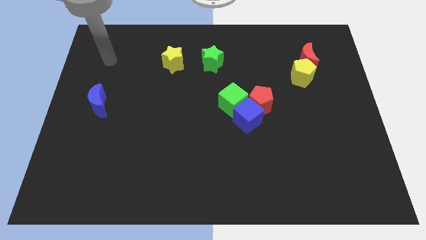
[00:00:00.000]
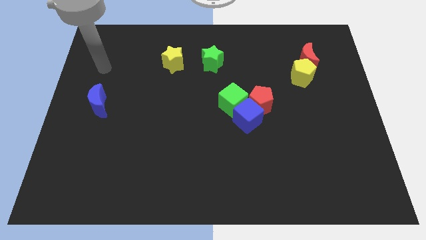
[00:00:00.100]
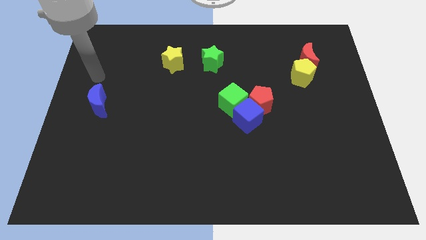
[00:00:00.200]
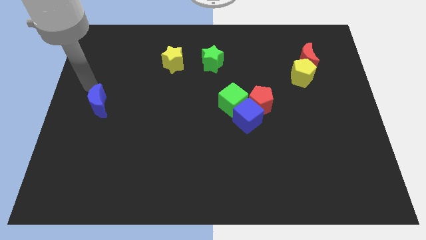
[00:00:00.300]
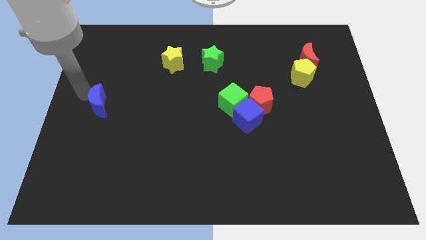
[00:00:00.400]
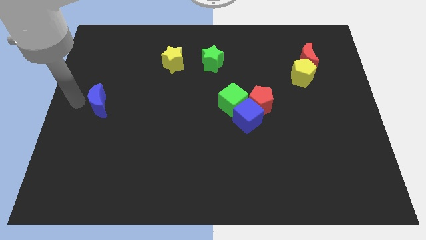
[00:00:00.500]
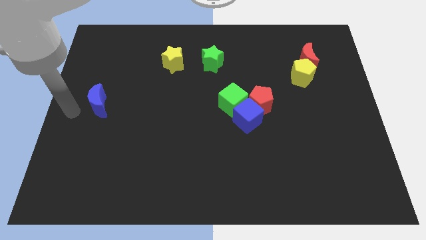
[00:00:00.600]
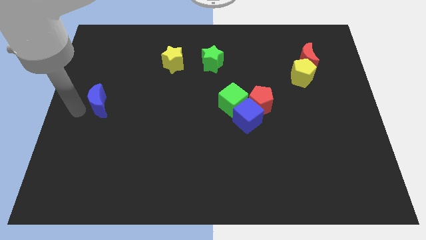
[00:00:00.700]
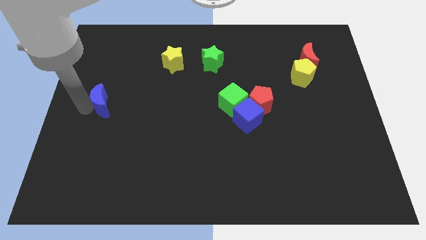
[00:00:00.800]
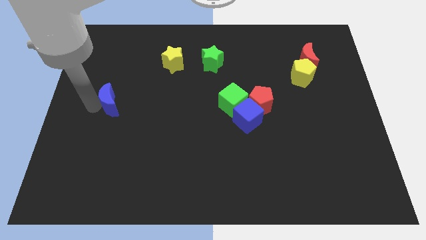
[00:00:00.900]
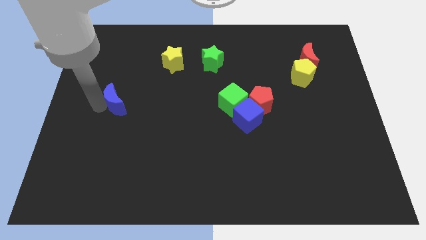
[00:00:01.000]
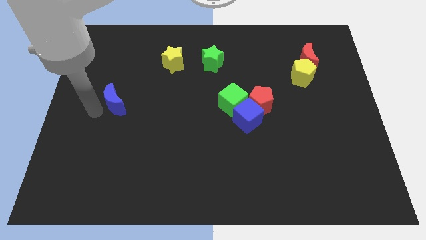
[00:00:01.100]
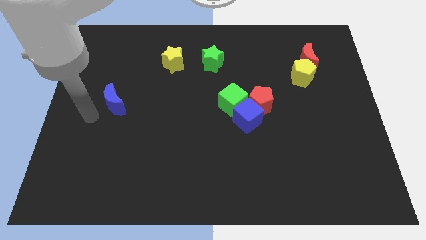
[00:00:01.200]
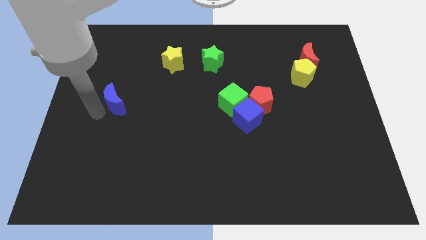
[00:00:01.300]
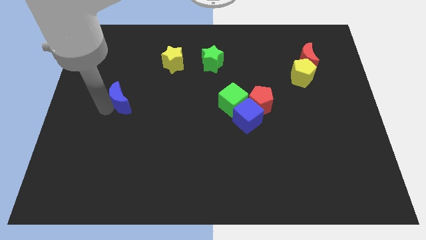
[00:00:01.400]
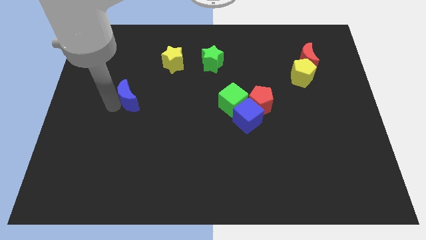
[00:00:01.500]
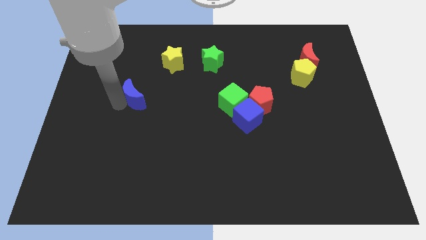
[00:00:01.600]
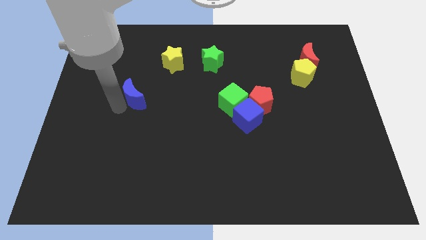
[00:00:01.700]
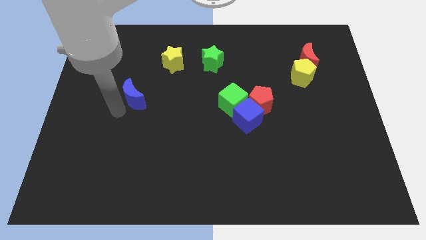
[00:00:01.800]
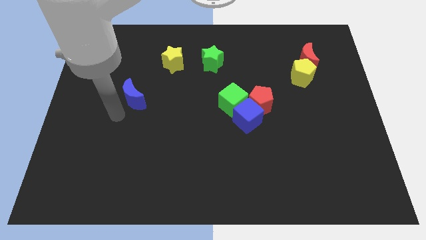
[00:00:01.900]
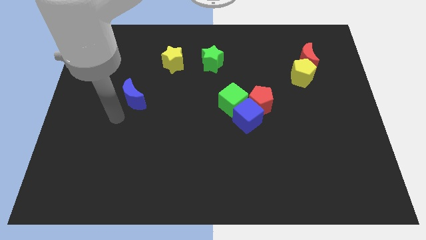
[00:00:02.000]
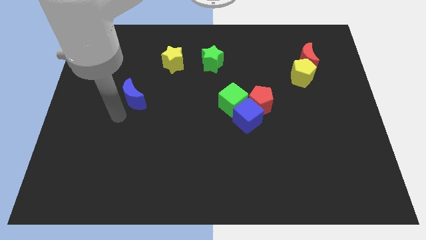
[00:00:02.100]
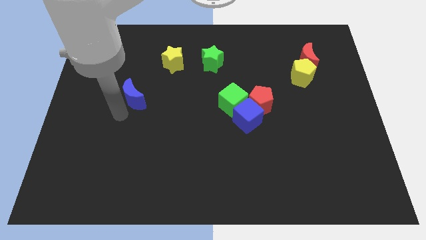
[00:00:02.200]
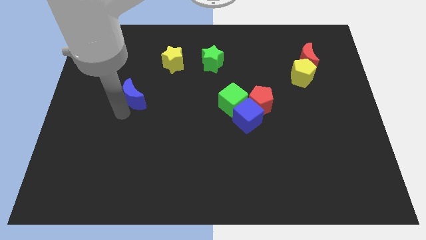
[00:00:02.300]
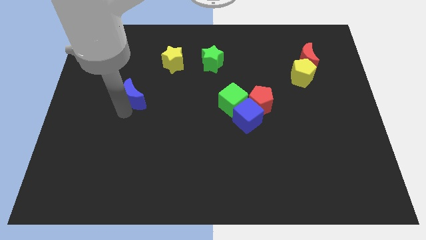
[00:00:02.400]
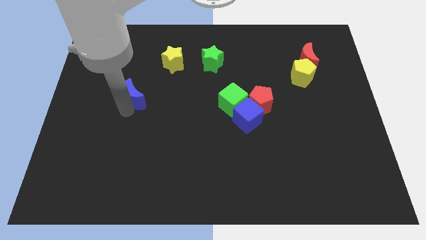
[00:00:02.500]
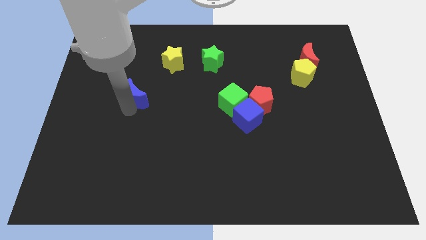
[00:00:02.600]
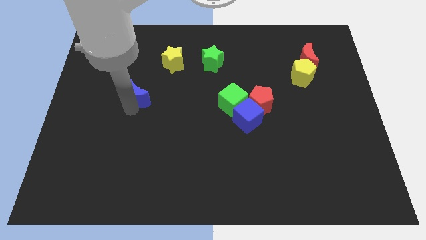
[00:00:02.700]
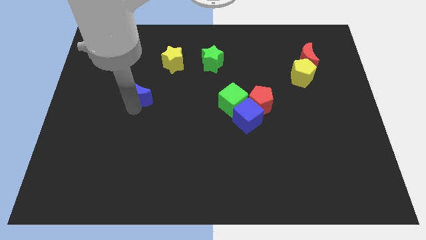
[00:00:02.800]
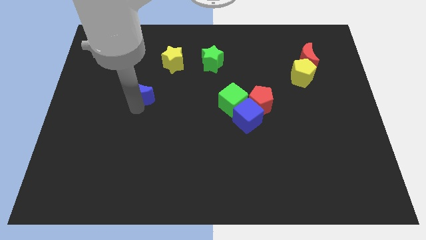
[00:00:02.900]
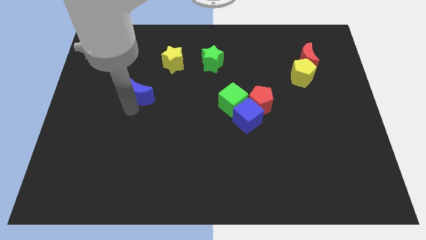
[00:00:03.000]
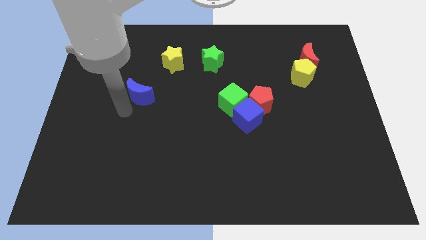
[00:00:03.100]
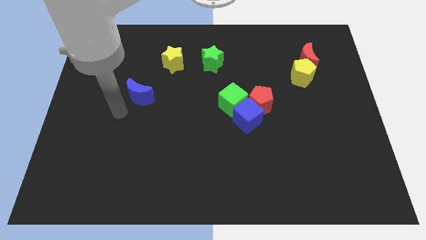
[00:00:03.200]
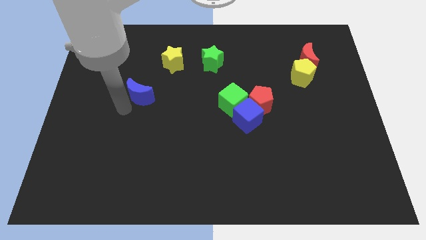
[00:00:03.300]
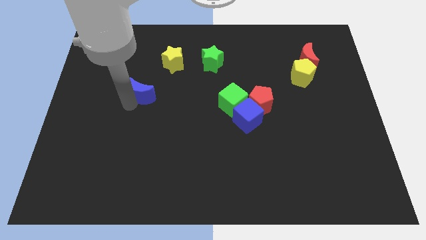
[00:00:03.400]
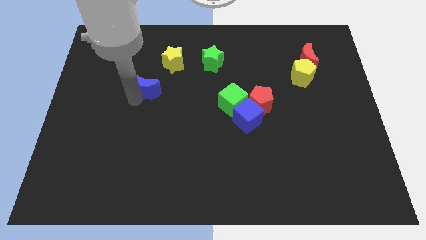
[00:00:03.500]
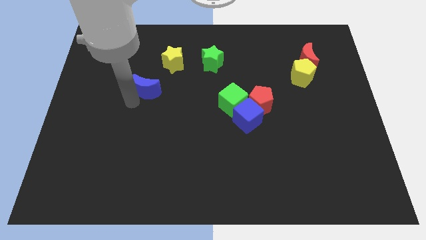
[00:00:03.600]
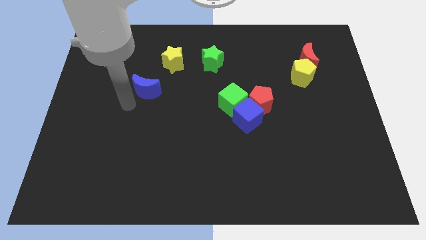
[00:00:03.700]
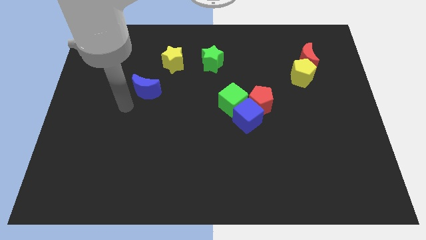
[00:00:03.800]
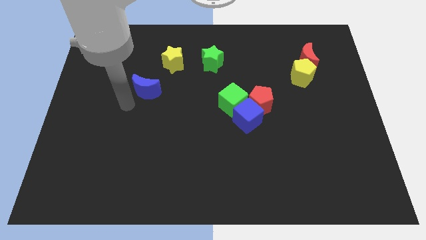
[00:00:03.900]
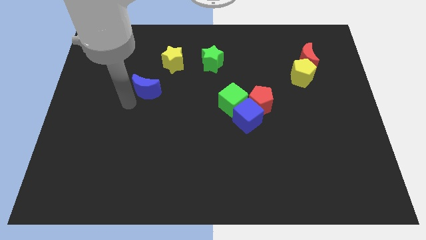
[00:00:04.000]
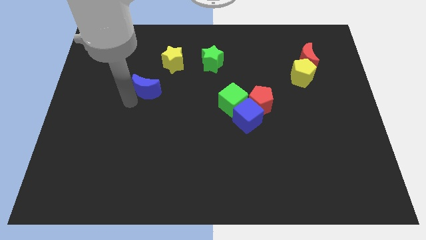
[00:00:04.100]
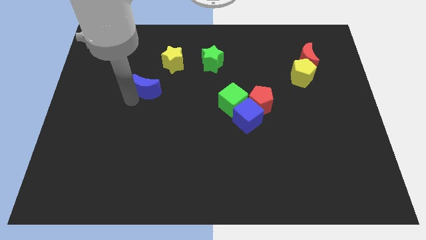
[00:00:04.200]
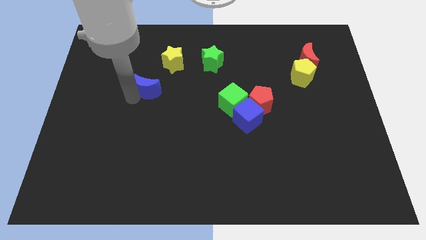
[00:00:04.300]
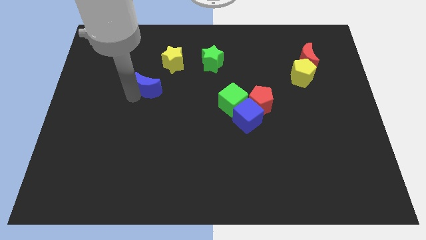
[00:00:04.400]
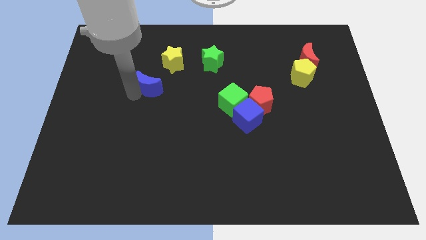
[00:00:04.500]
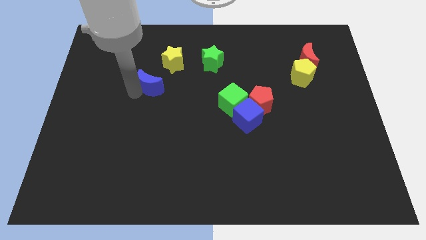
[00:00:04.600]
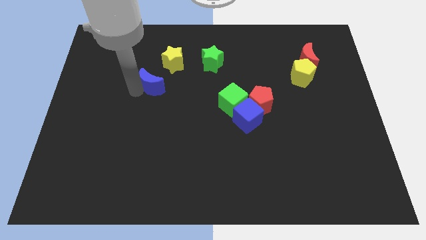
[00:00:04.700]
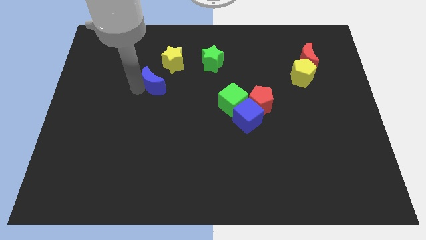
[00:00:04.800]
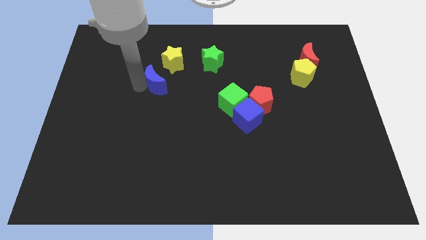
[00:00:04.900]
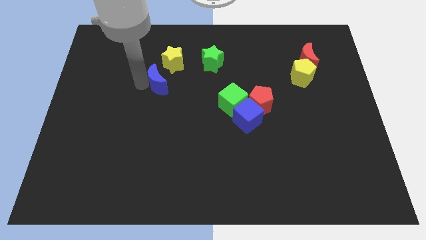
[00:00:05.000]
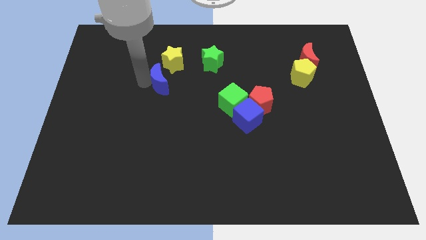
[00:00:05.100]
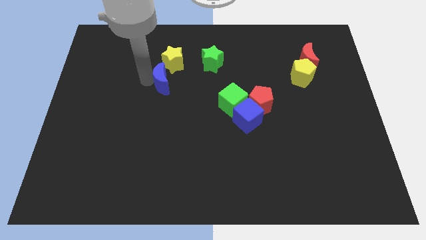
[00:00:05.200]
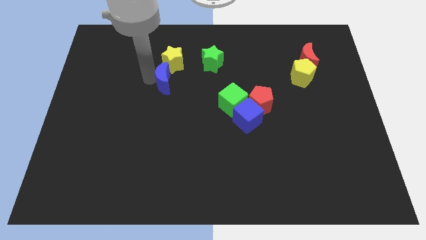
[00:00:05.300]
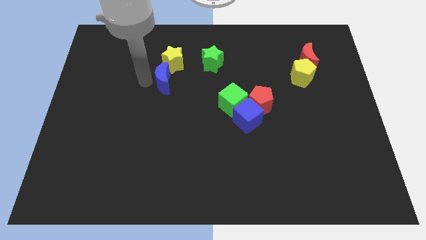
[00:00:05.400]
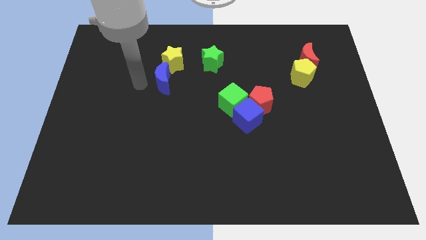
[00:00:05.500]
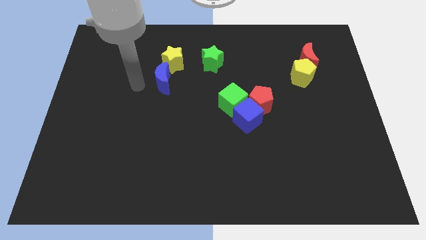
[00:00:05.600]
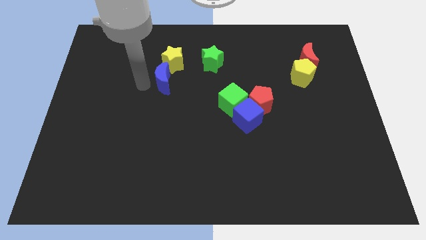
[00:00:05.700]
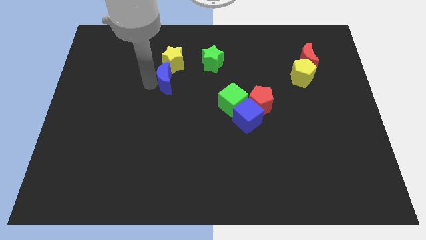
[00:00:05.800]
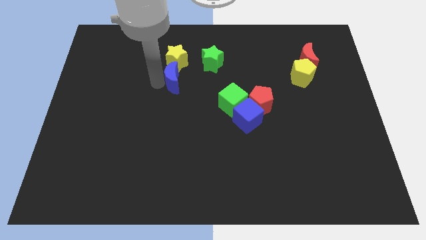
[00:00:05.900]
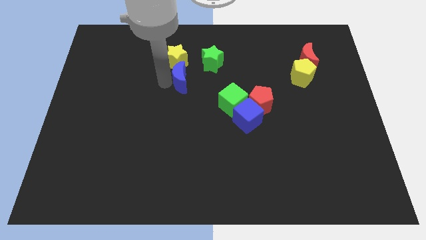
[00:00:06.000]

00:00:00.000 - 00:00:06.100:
slide the blue moon diagonally down and to the right of the yellow star

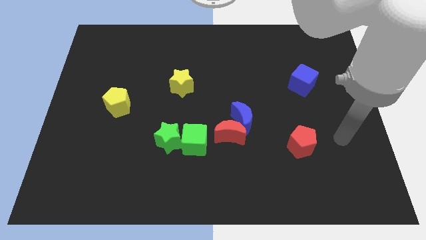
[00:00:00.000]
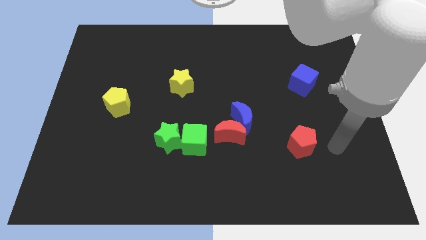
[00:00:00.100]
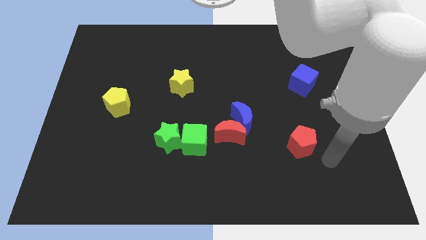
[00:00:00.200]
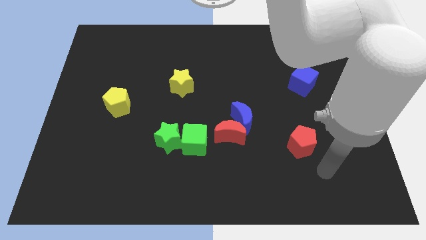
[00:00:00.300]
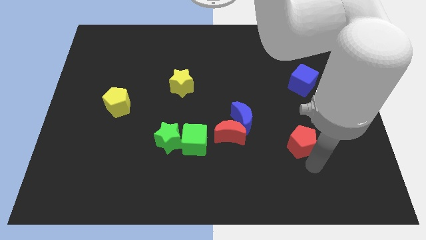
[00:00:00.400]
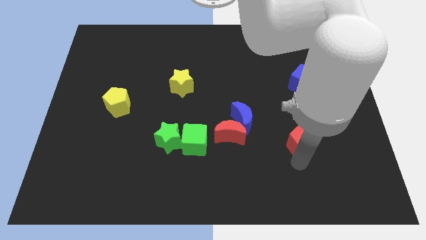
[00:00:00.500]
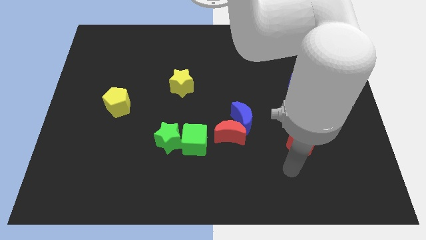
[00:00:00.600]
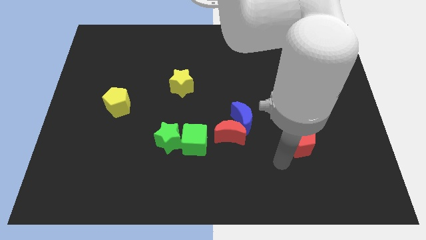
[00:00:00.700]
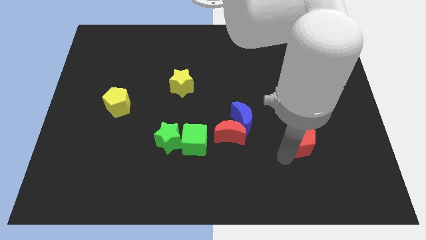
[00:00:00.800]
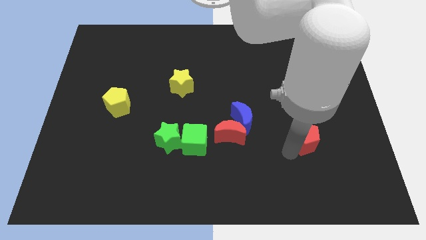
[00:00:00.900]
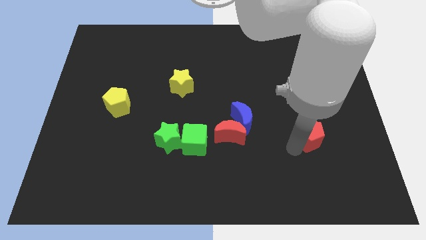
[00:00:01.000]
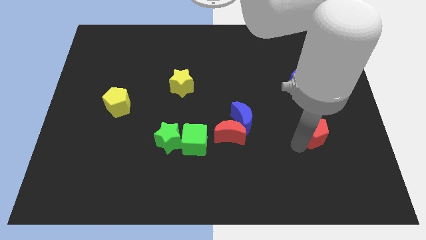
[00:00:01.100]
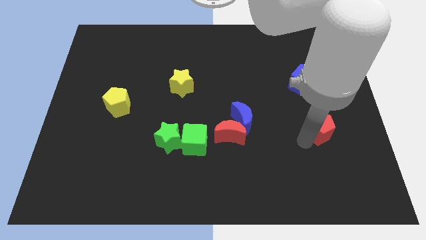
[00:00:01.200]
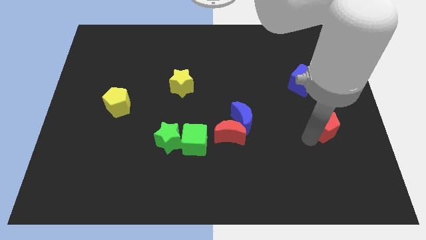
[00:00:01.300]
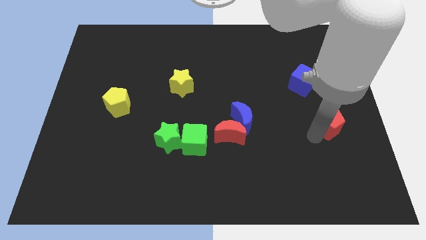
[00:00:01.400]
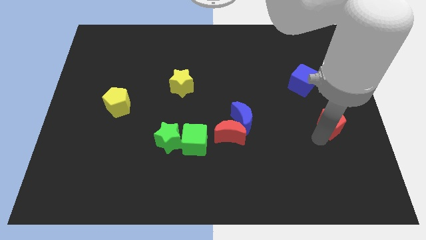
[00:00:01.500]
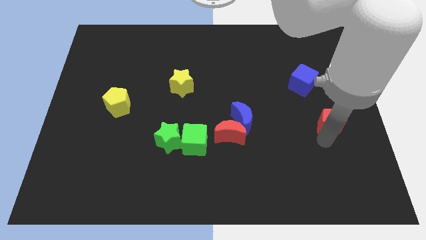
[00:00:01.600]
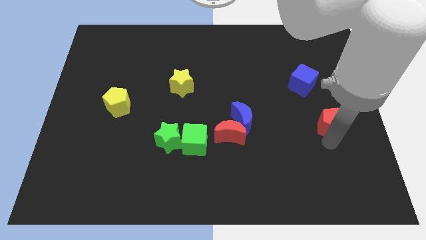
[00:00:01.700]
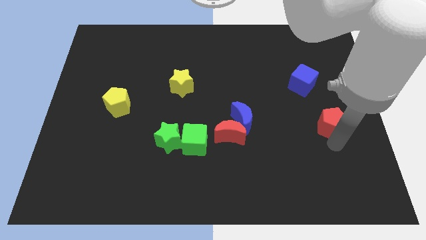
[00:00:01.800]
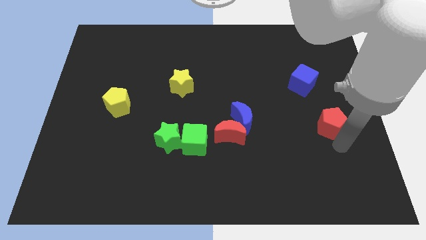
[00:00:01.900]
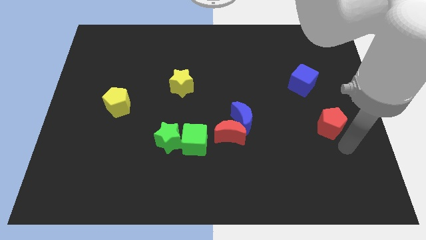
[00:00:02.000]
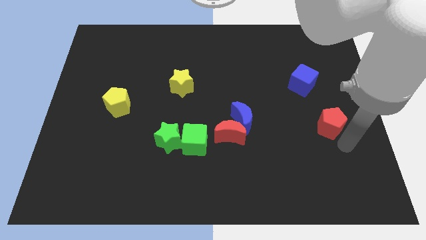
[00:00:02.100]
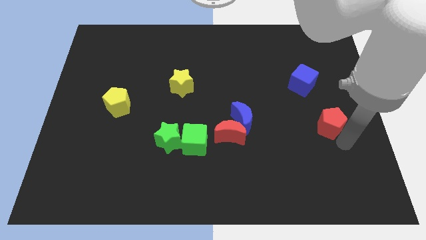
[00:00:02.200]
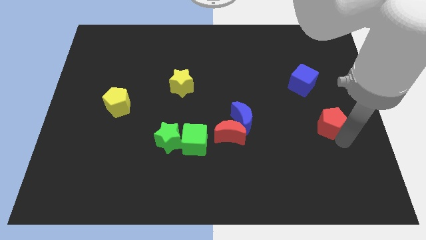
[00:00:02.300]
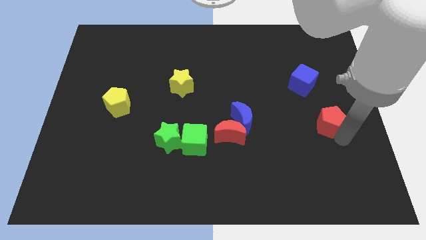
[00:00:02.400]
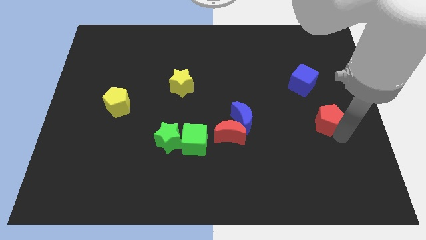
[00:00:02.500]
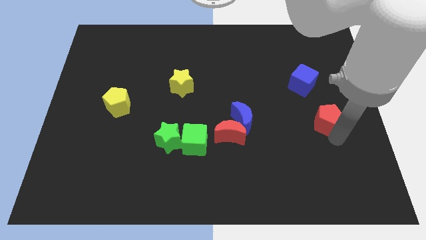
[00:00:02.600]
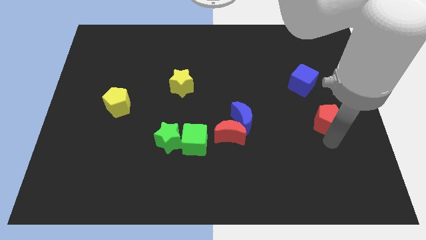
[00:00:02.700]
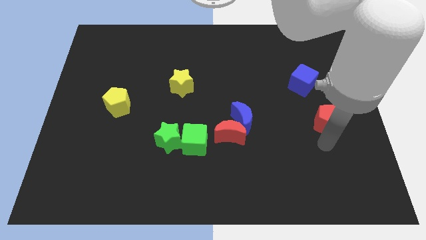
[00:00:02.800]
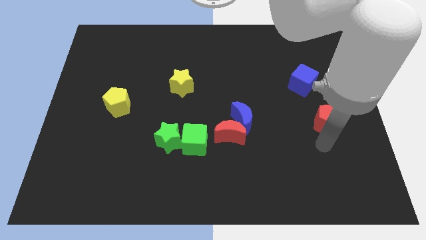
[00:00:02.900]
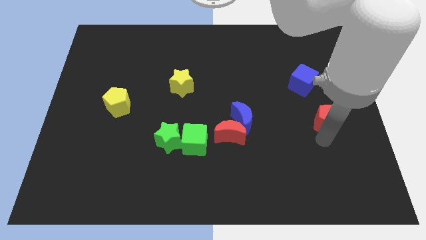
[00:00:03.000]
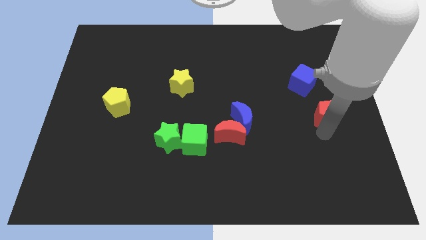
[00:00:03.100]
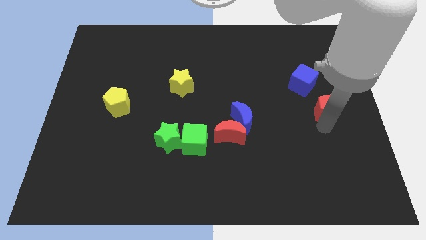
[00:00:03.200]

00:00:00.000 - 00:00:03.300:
push the red pentagon to the bottom right of the blue cube
